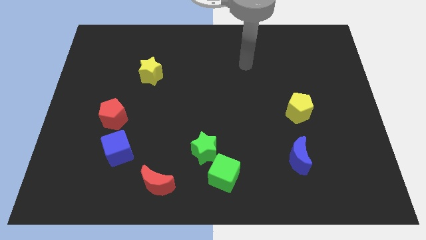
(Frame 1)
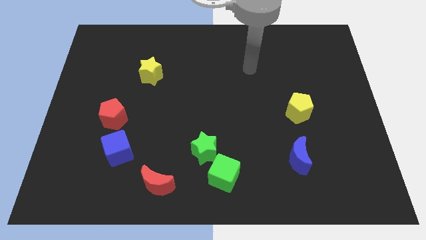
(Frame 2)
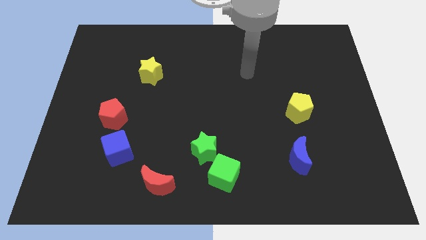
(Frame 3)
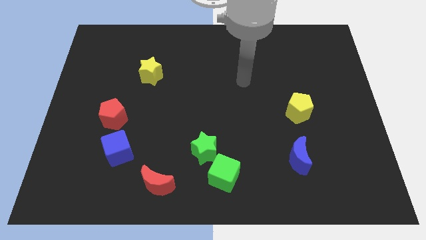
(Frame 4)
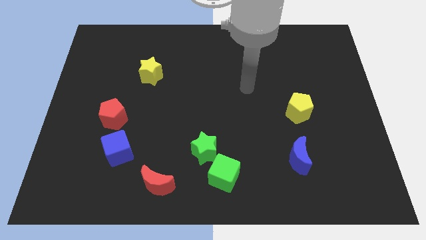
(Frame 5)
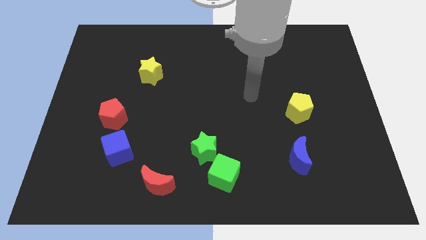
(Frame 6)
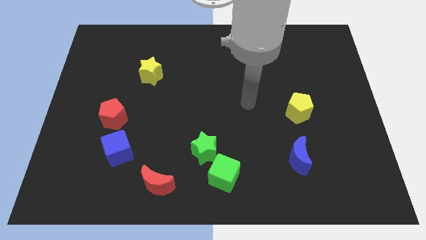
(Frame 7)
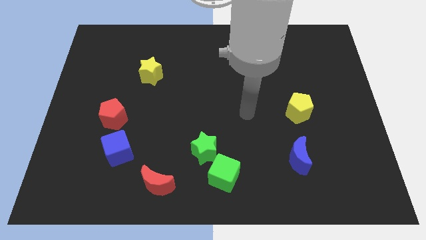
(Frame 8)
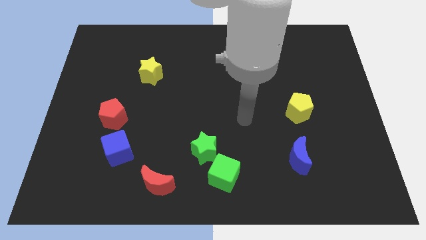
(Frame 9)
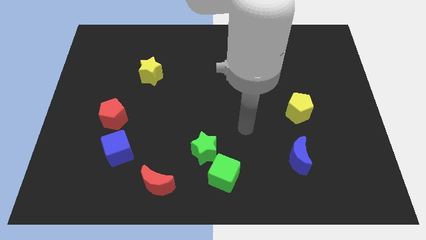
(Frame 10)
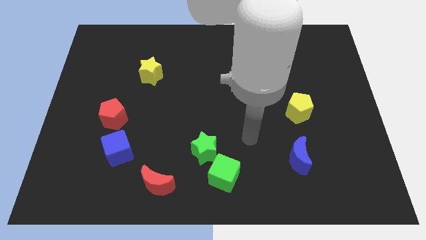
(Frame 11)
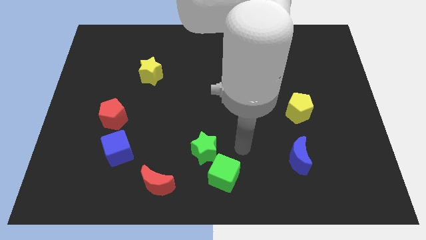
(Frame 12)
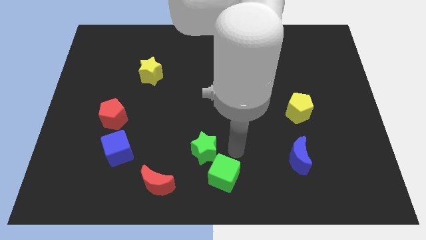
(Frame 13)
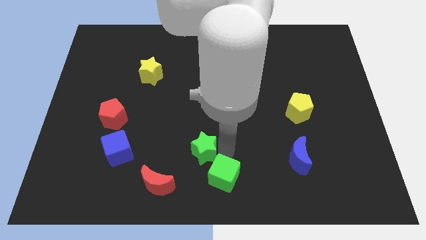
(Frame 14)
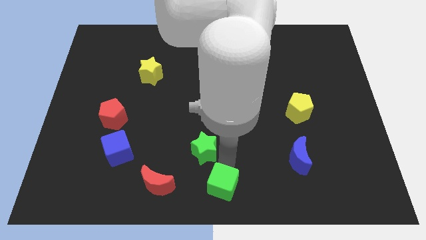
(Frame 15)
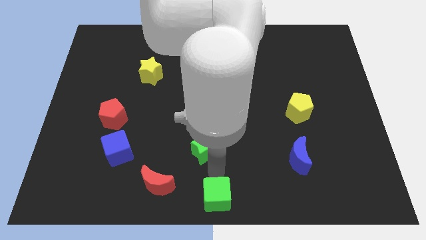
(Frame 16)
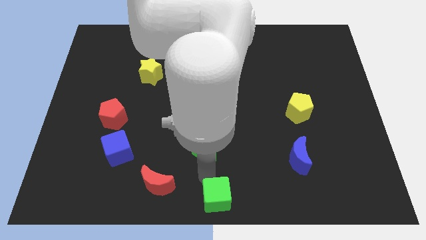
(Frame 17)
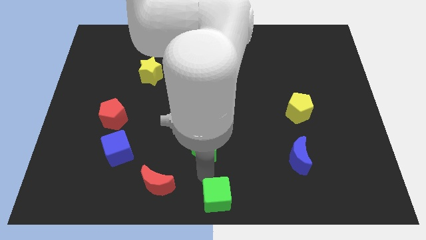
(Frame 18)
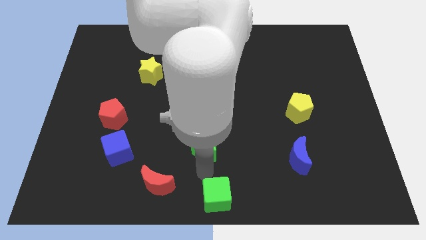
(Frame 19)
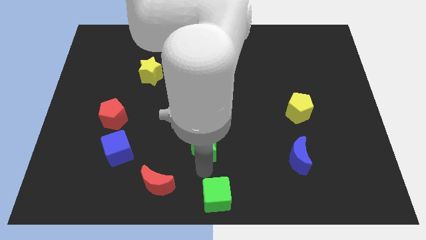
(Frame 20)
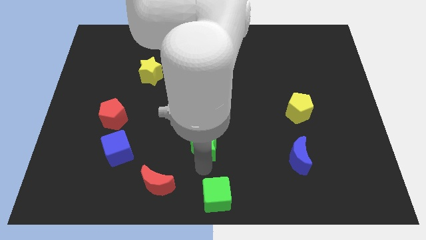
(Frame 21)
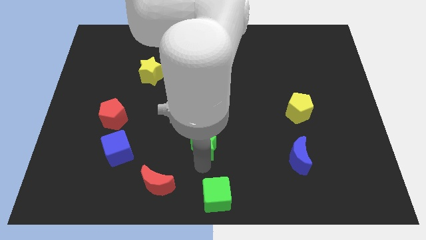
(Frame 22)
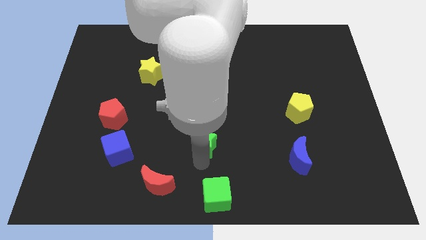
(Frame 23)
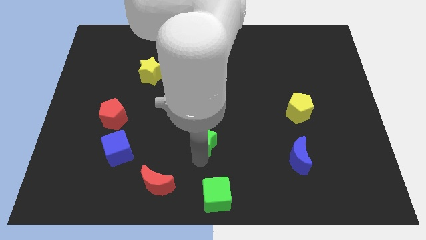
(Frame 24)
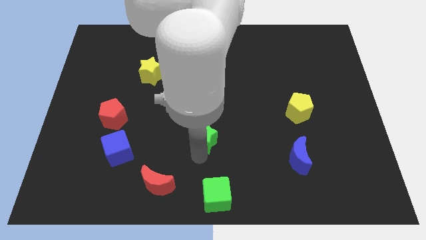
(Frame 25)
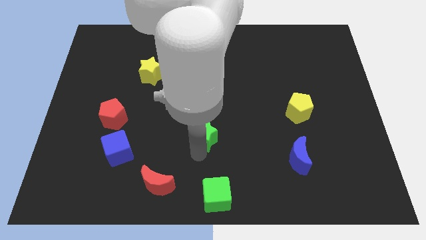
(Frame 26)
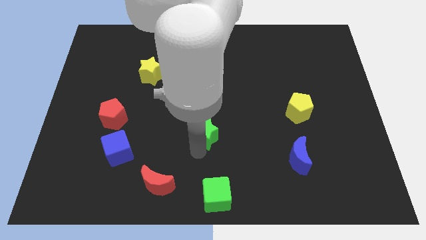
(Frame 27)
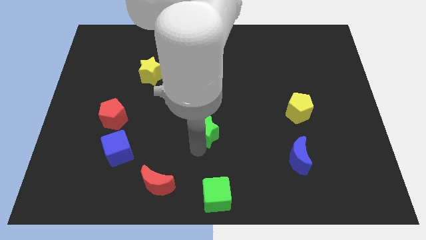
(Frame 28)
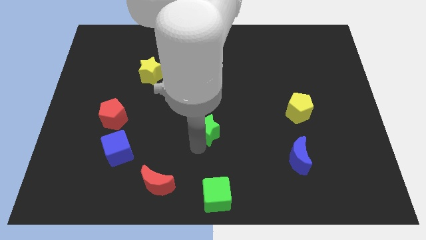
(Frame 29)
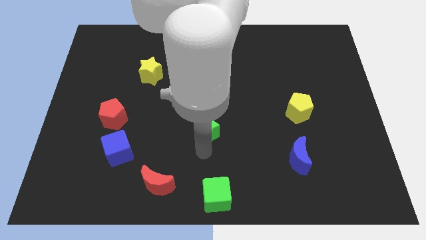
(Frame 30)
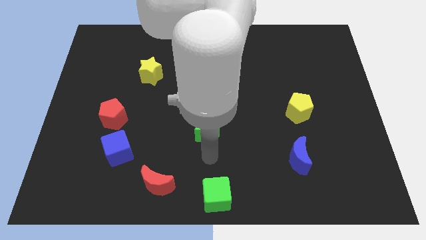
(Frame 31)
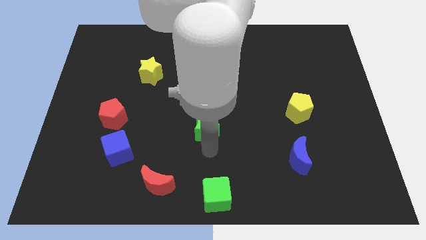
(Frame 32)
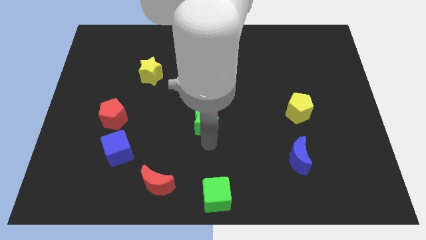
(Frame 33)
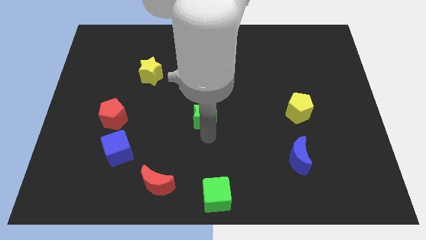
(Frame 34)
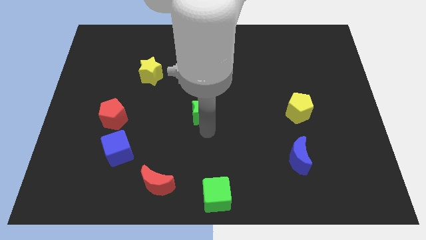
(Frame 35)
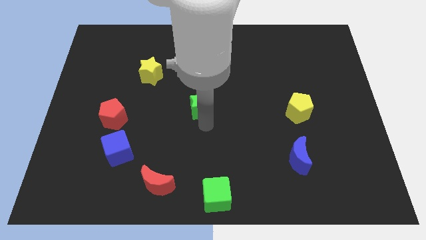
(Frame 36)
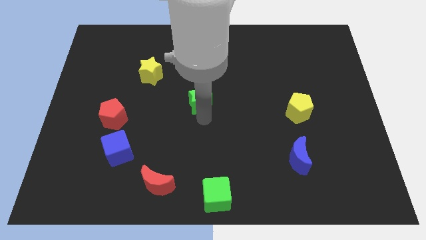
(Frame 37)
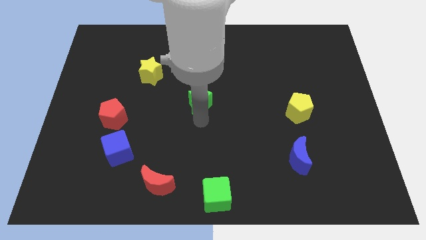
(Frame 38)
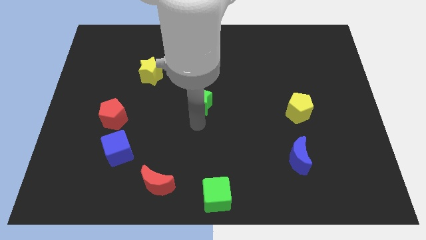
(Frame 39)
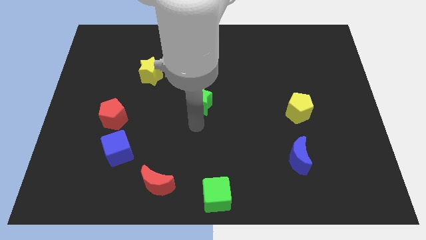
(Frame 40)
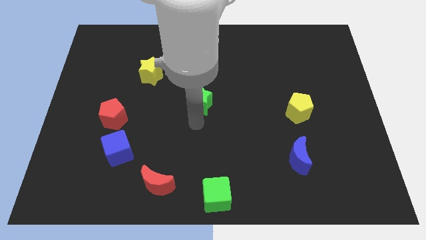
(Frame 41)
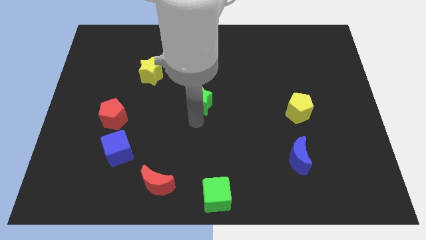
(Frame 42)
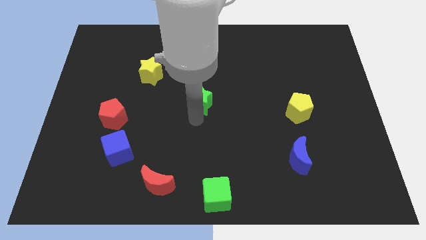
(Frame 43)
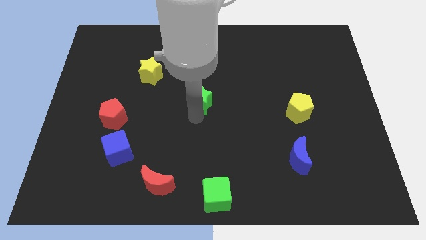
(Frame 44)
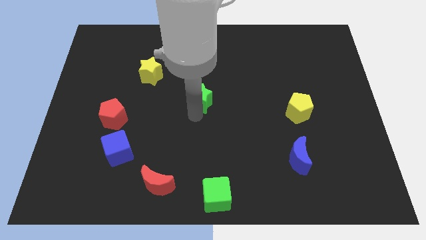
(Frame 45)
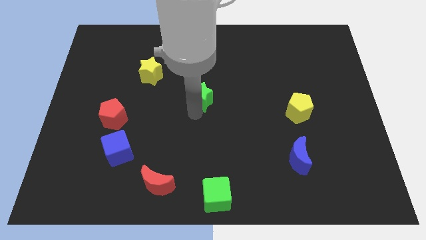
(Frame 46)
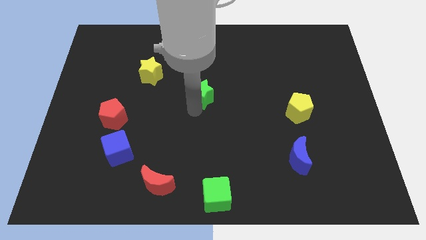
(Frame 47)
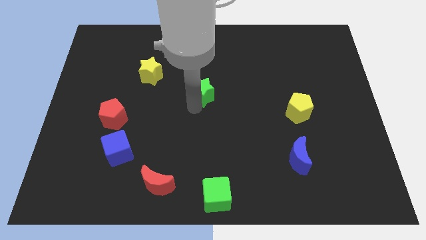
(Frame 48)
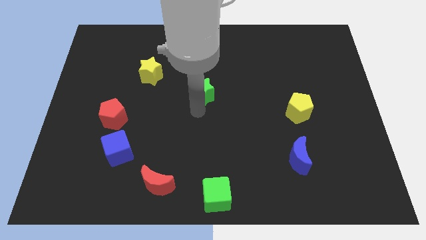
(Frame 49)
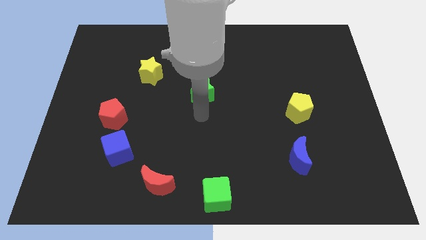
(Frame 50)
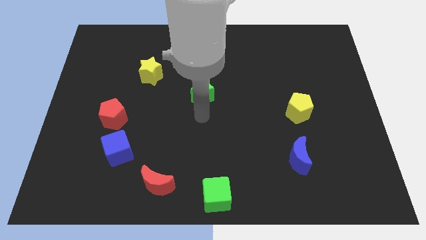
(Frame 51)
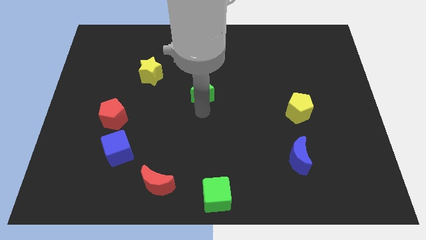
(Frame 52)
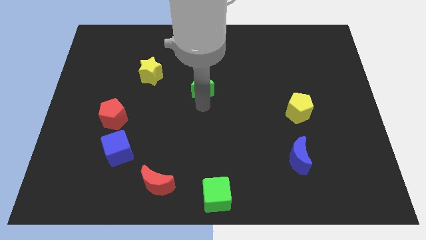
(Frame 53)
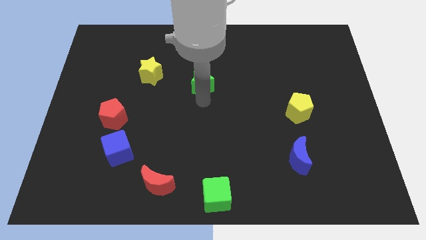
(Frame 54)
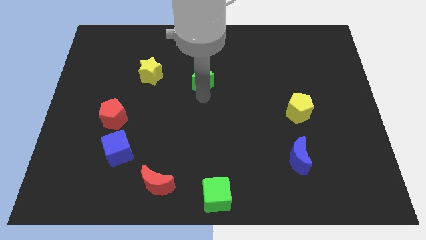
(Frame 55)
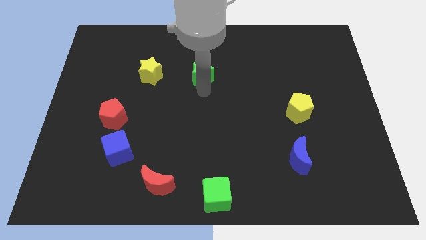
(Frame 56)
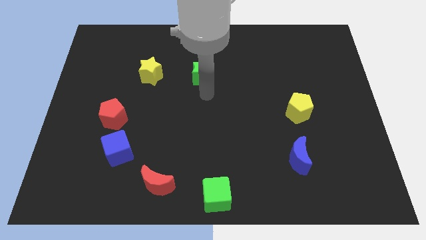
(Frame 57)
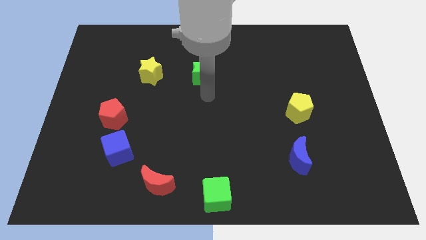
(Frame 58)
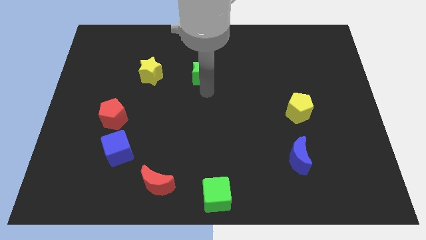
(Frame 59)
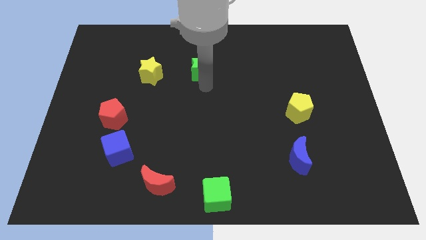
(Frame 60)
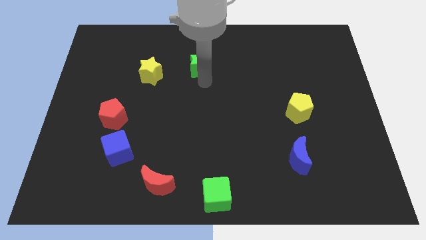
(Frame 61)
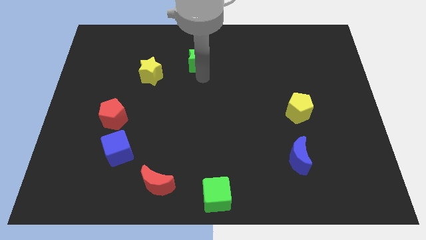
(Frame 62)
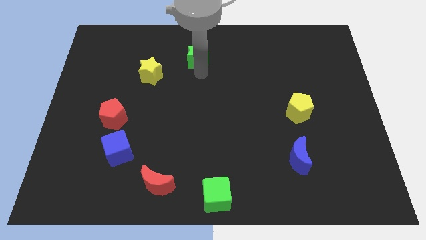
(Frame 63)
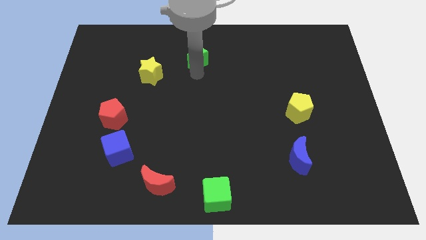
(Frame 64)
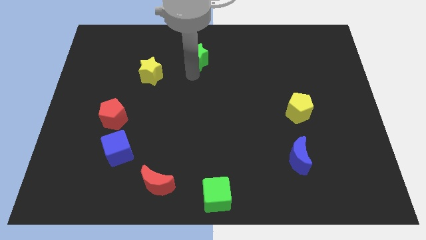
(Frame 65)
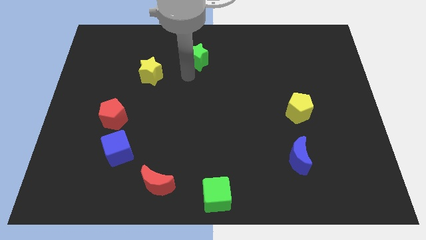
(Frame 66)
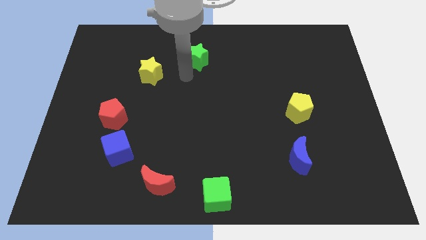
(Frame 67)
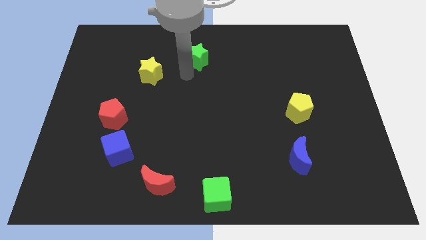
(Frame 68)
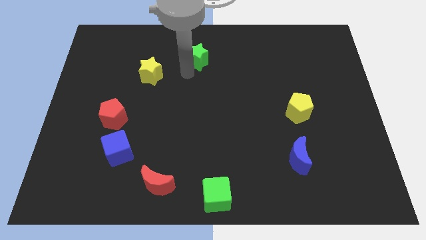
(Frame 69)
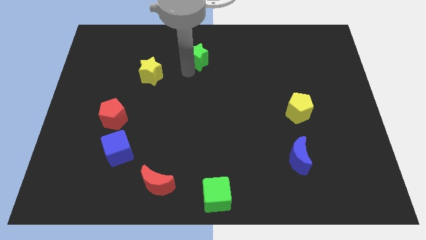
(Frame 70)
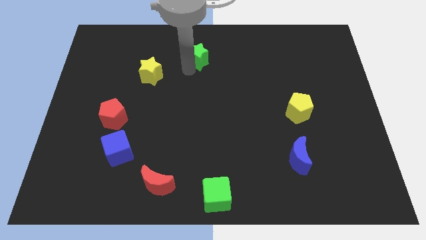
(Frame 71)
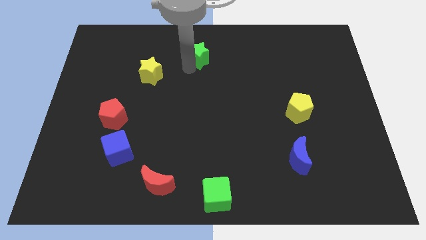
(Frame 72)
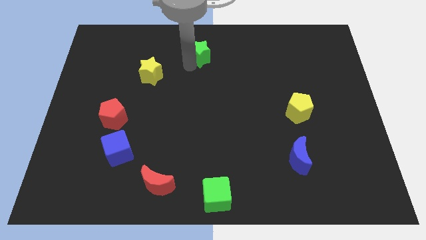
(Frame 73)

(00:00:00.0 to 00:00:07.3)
slide the green star to the top
